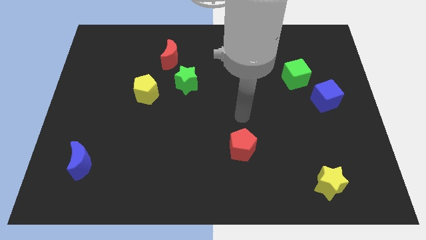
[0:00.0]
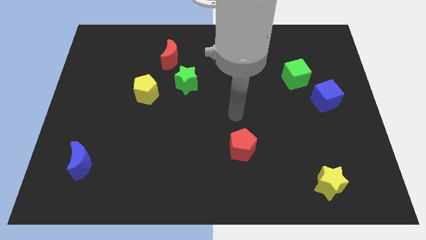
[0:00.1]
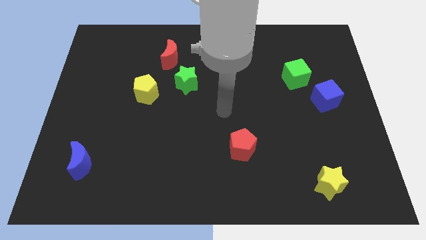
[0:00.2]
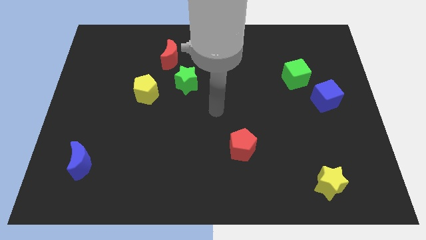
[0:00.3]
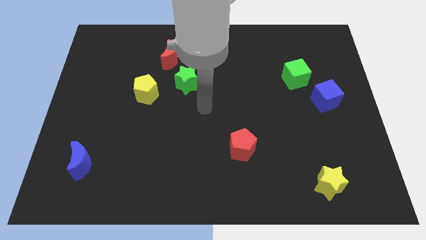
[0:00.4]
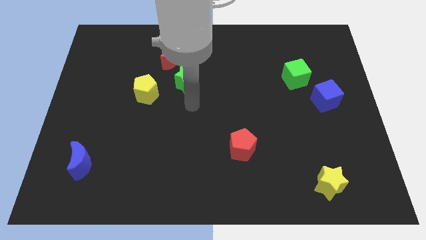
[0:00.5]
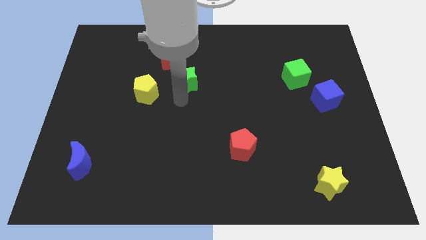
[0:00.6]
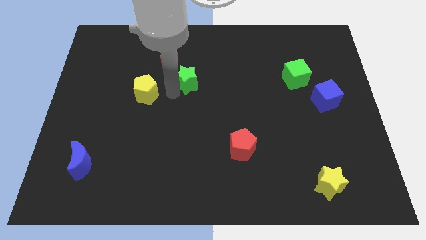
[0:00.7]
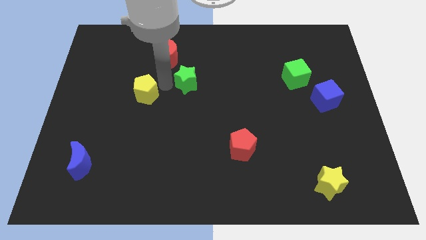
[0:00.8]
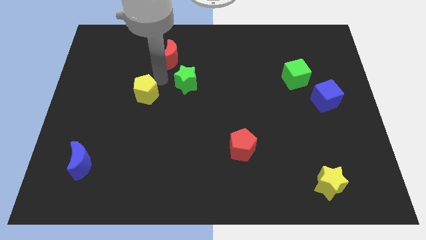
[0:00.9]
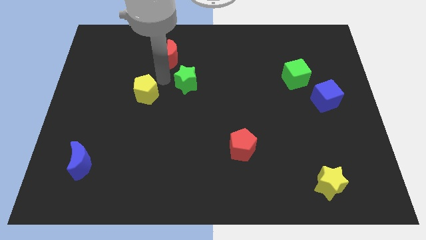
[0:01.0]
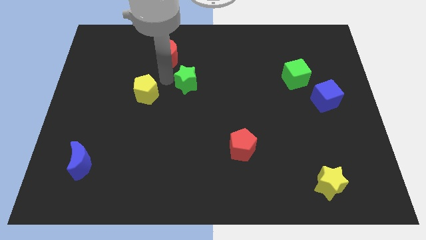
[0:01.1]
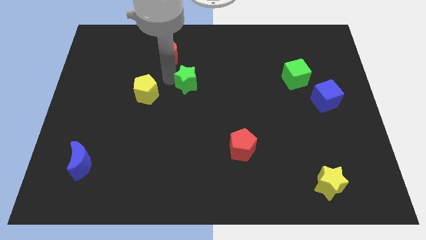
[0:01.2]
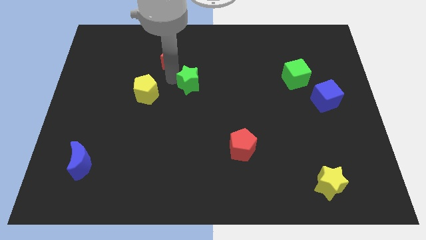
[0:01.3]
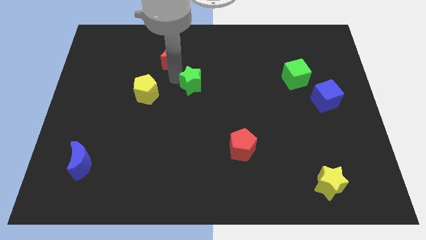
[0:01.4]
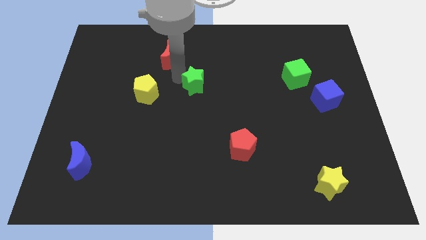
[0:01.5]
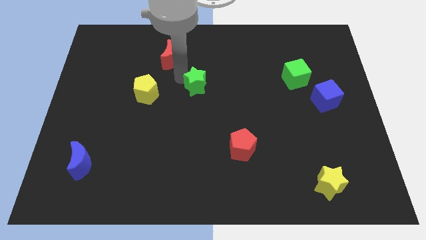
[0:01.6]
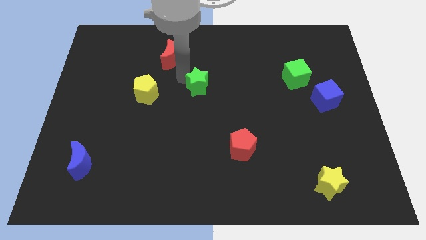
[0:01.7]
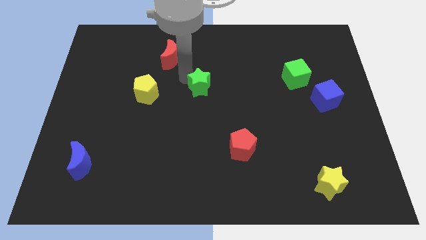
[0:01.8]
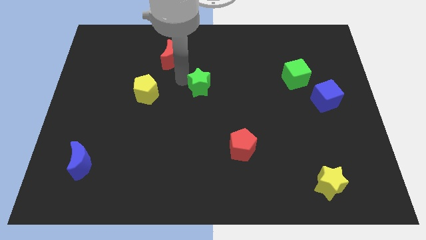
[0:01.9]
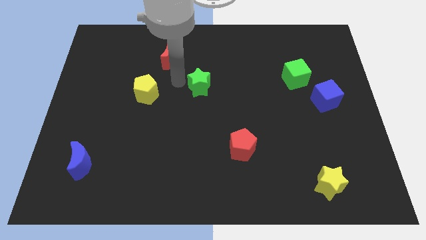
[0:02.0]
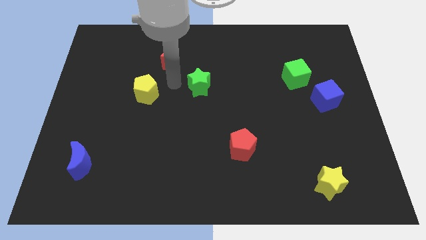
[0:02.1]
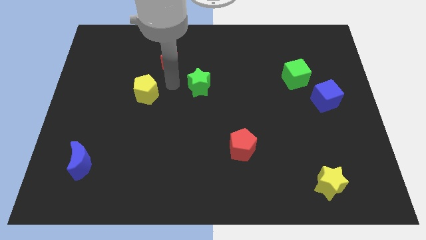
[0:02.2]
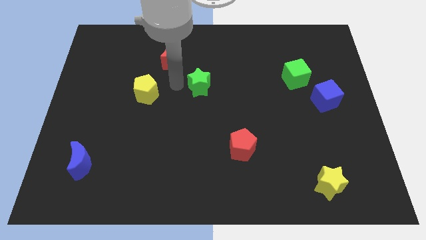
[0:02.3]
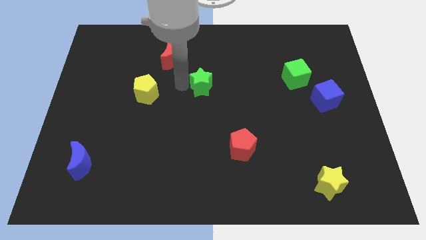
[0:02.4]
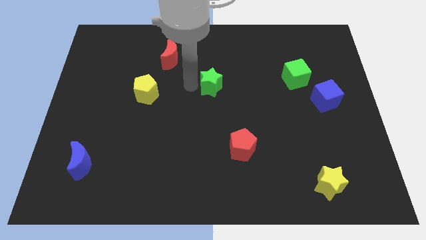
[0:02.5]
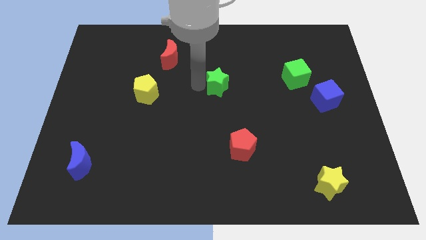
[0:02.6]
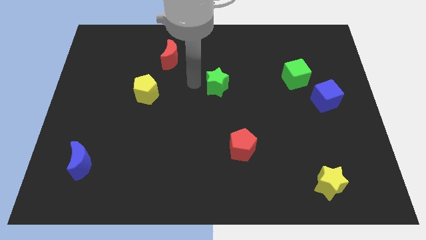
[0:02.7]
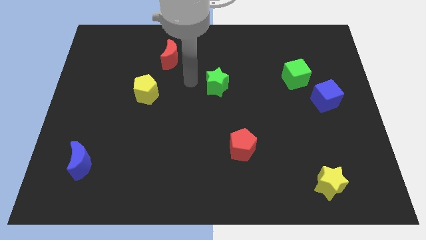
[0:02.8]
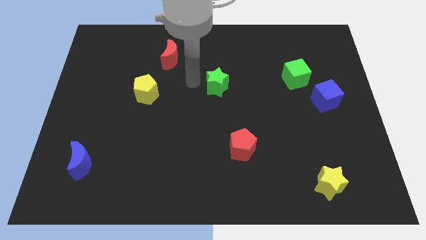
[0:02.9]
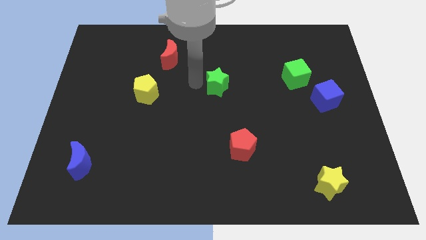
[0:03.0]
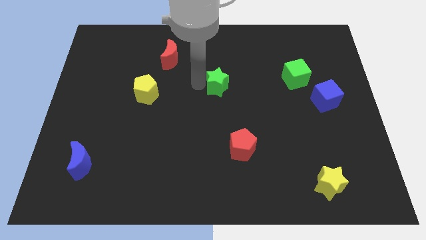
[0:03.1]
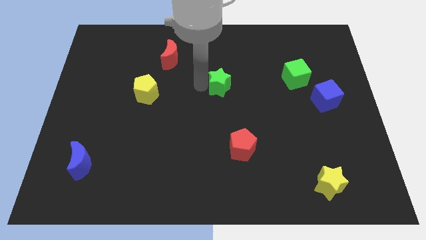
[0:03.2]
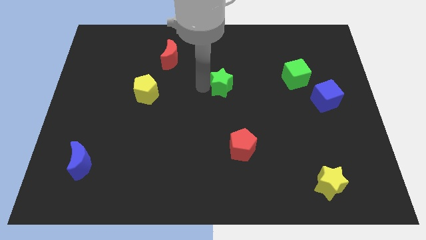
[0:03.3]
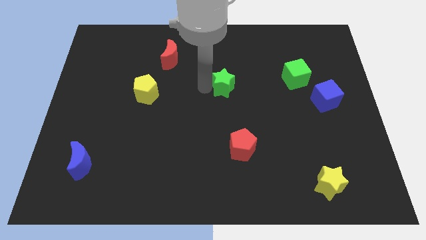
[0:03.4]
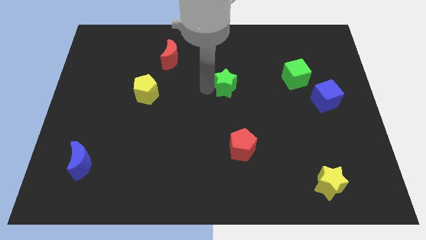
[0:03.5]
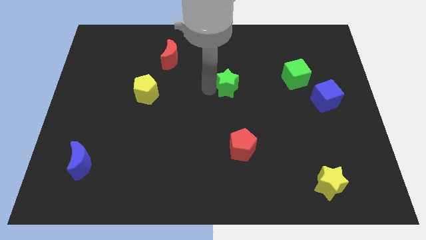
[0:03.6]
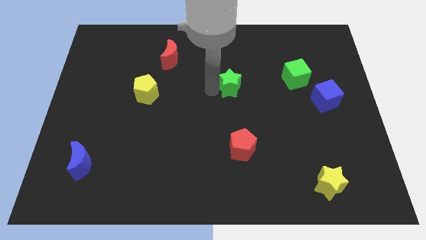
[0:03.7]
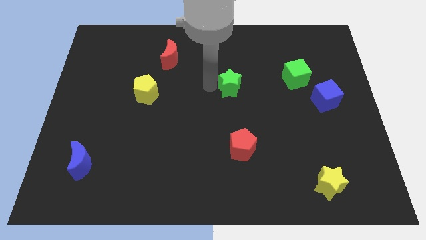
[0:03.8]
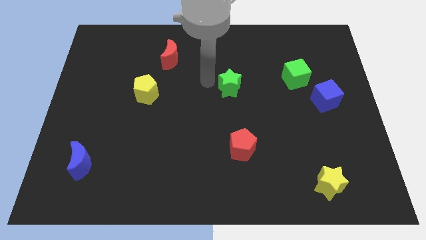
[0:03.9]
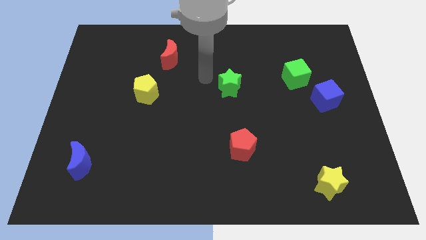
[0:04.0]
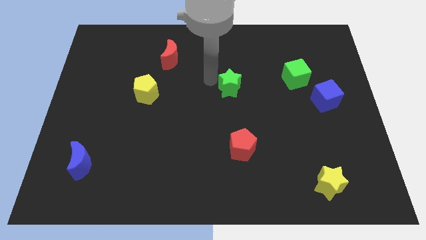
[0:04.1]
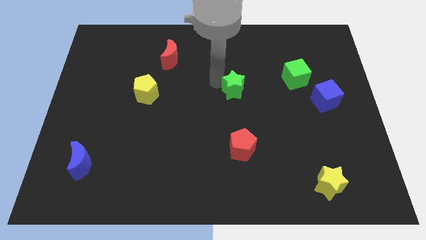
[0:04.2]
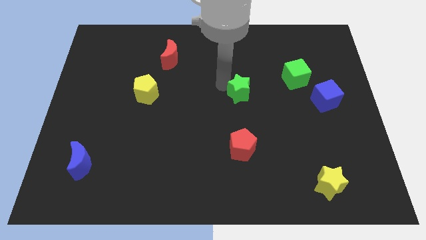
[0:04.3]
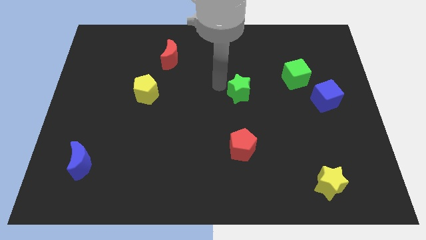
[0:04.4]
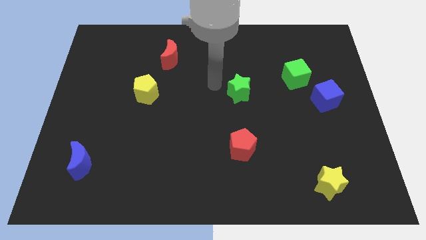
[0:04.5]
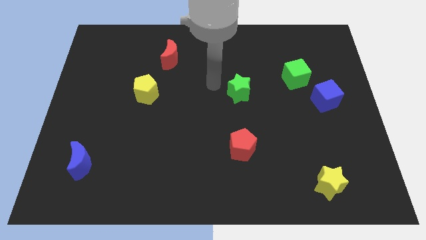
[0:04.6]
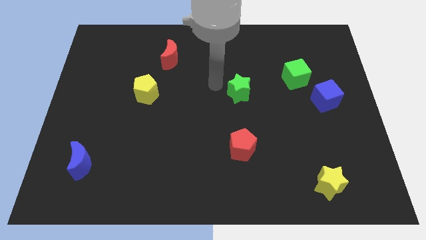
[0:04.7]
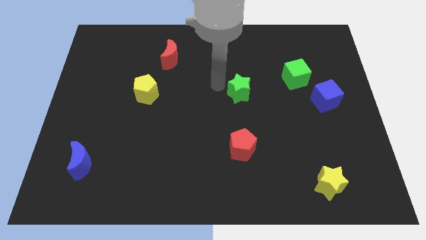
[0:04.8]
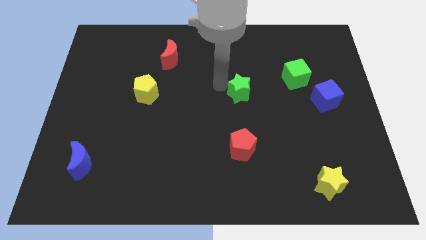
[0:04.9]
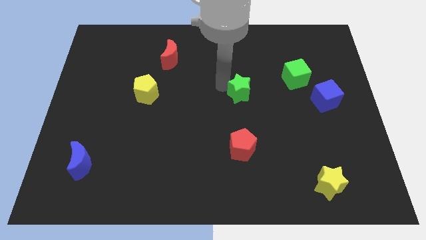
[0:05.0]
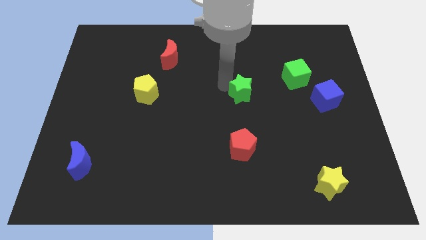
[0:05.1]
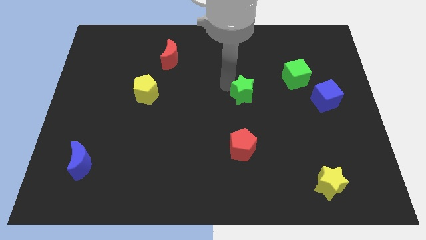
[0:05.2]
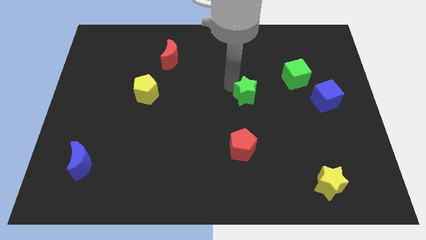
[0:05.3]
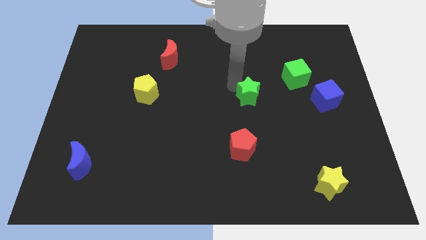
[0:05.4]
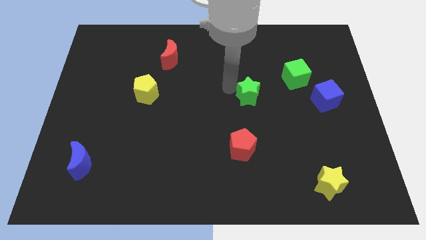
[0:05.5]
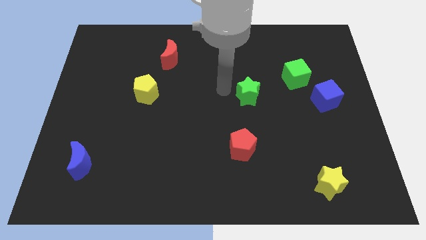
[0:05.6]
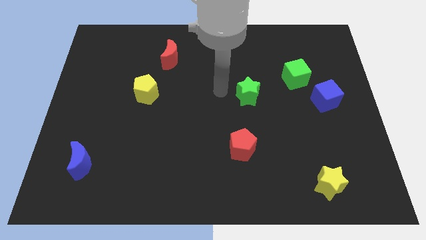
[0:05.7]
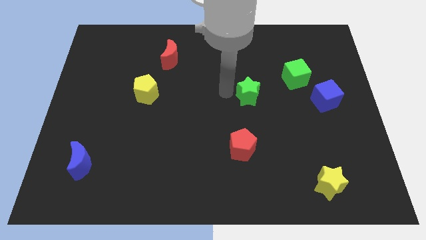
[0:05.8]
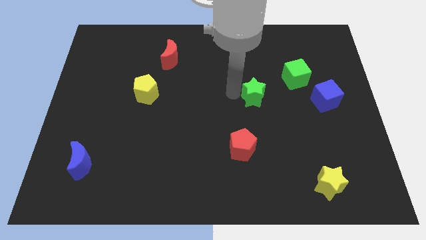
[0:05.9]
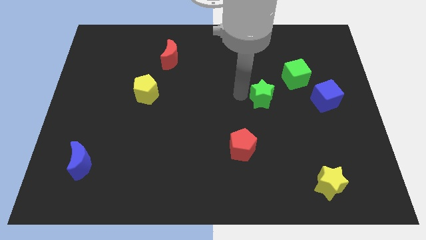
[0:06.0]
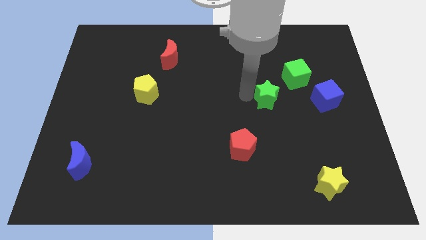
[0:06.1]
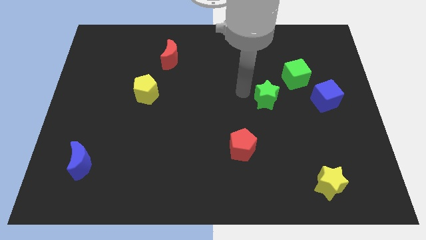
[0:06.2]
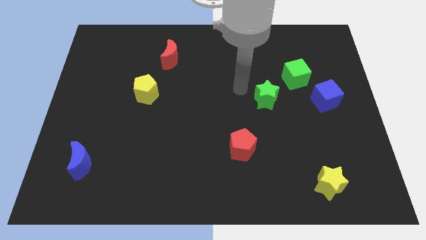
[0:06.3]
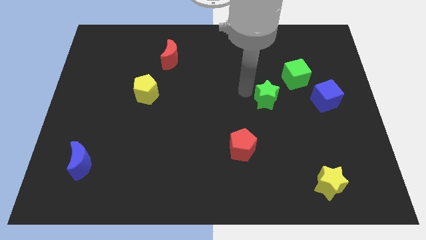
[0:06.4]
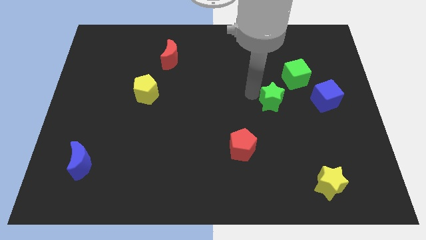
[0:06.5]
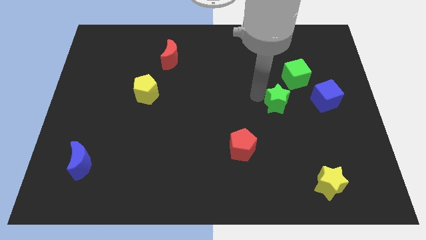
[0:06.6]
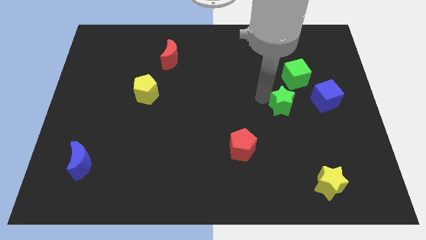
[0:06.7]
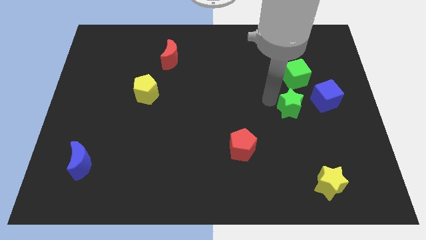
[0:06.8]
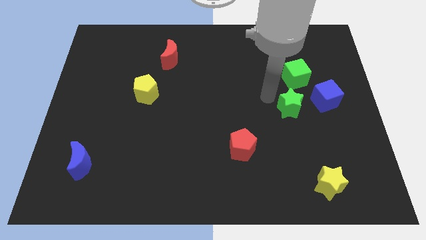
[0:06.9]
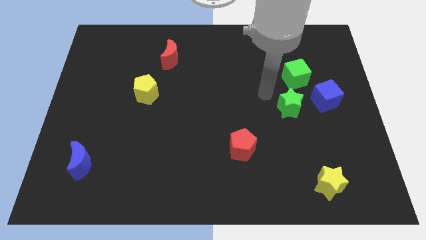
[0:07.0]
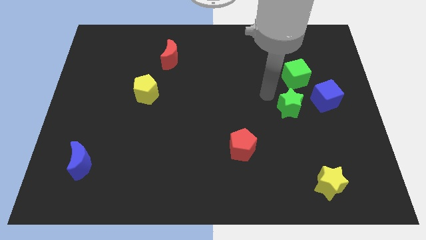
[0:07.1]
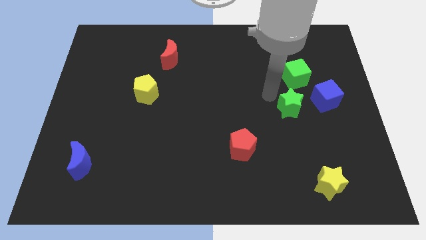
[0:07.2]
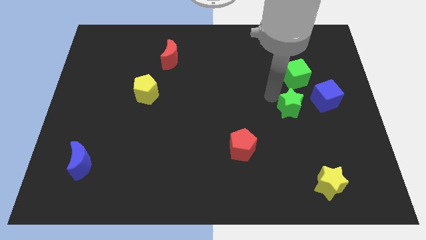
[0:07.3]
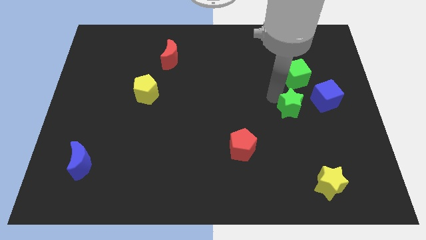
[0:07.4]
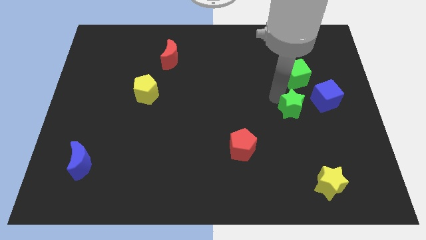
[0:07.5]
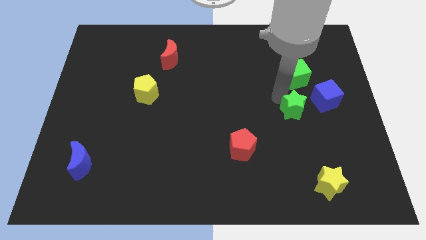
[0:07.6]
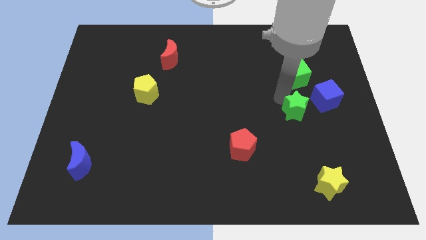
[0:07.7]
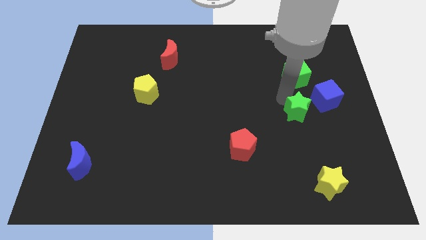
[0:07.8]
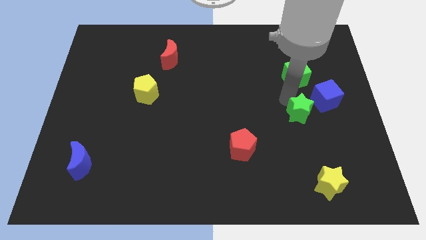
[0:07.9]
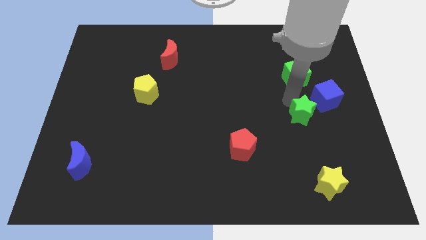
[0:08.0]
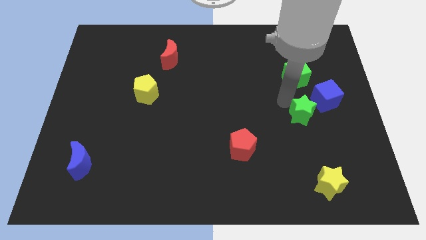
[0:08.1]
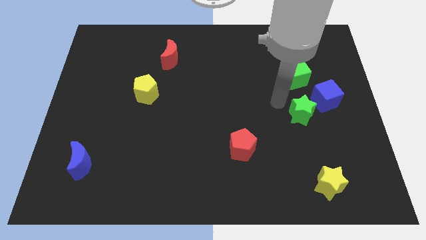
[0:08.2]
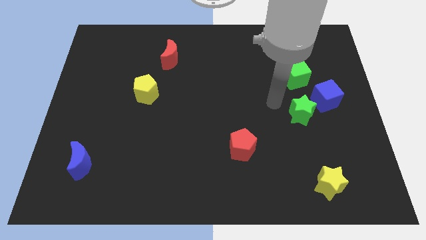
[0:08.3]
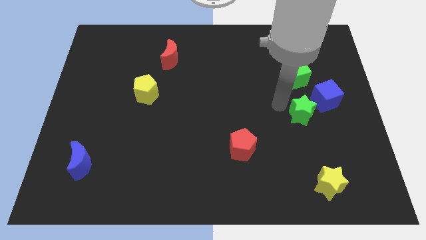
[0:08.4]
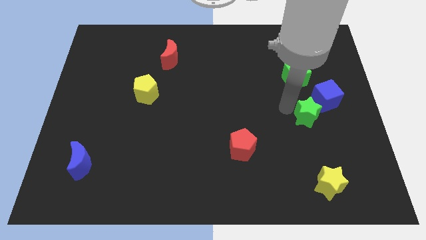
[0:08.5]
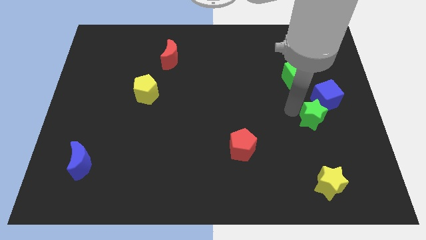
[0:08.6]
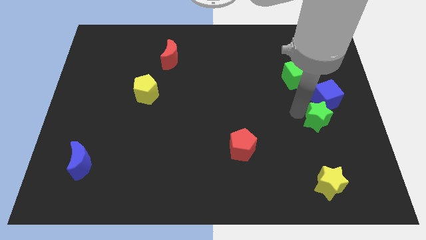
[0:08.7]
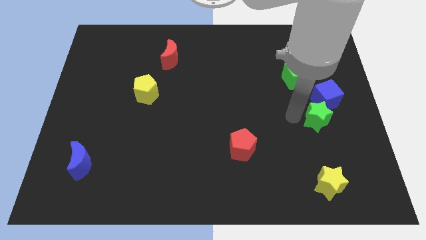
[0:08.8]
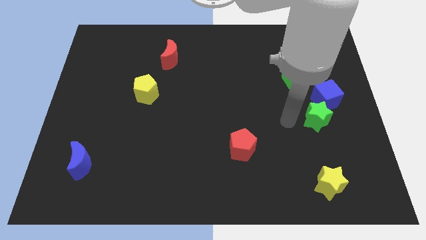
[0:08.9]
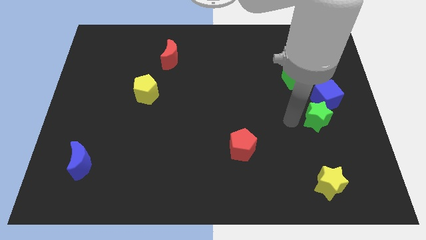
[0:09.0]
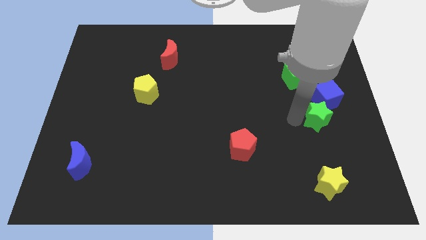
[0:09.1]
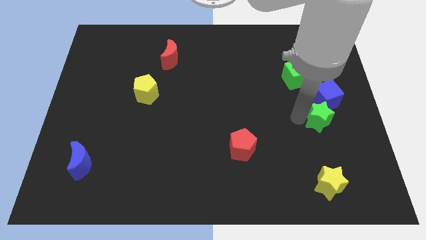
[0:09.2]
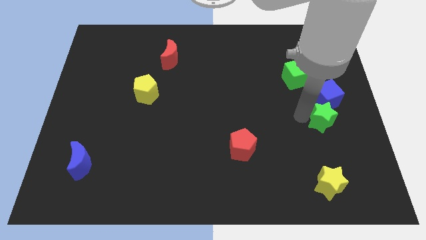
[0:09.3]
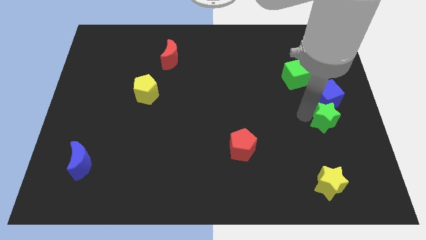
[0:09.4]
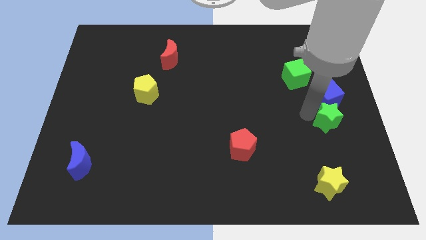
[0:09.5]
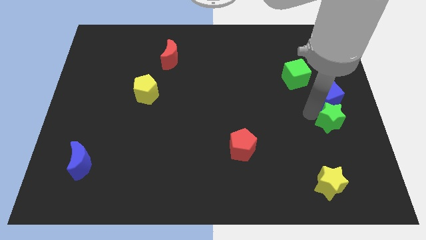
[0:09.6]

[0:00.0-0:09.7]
slide the green star to the center right
